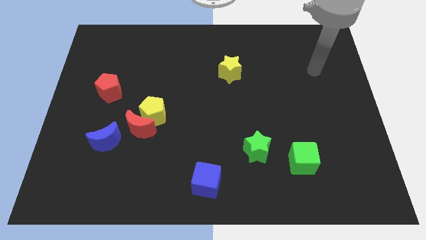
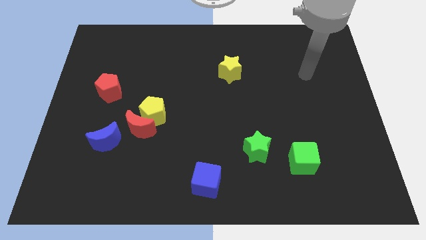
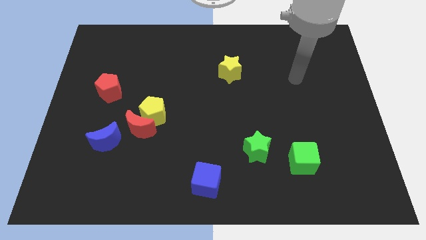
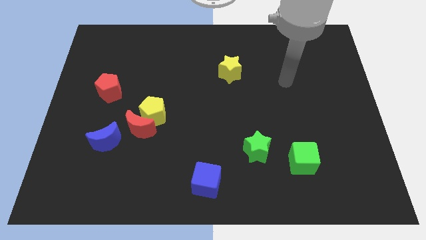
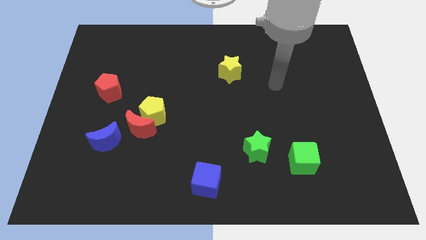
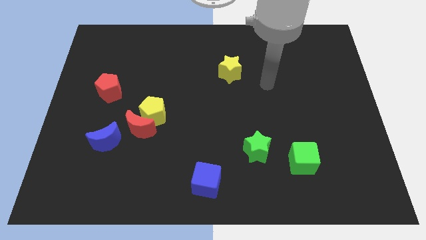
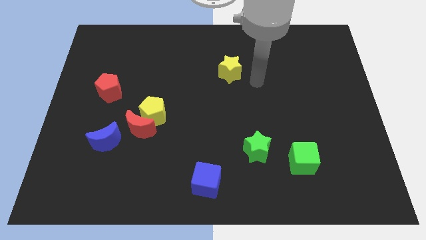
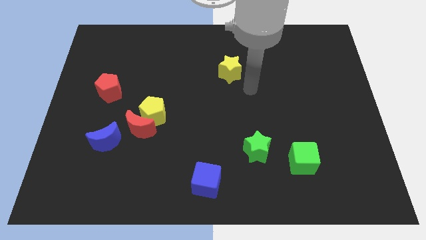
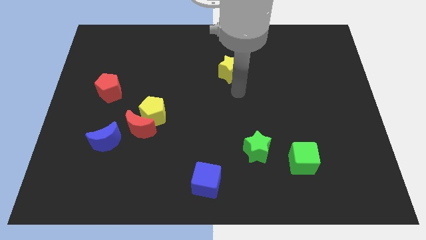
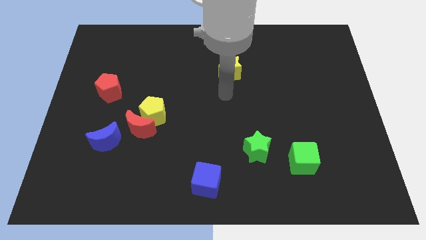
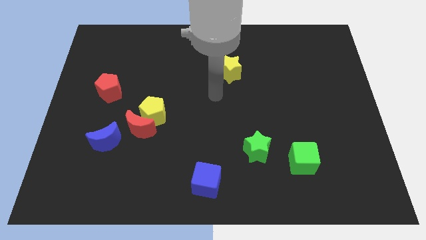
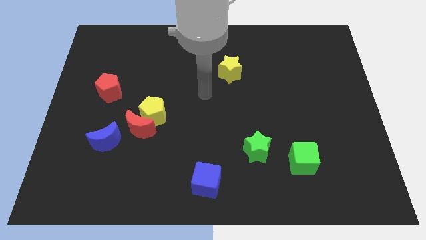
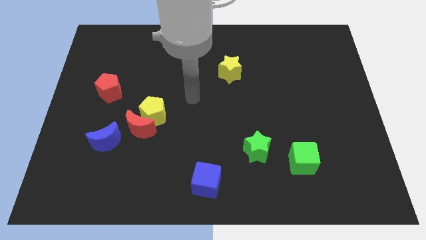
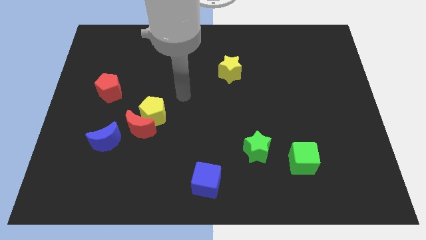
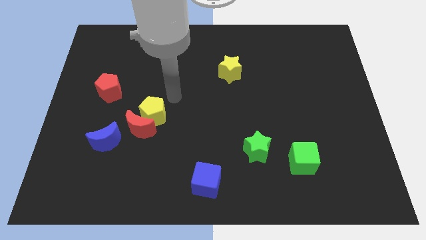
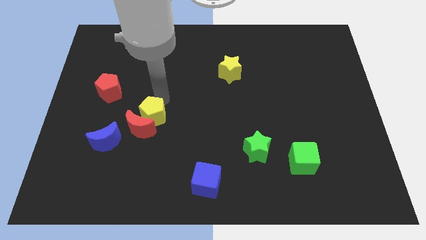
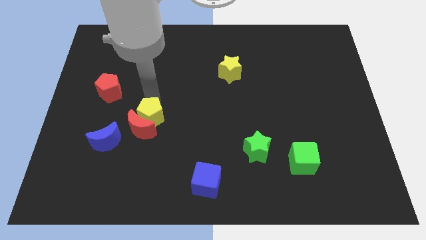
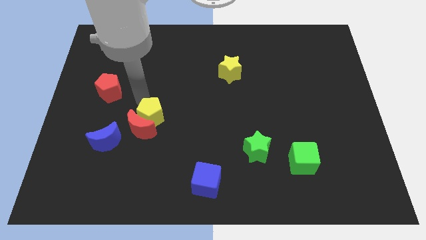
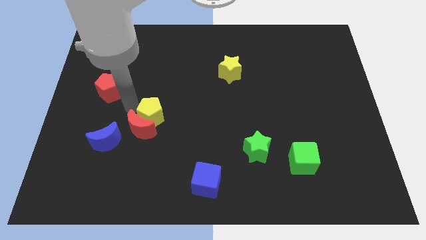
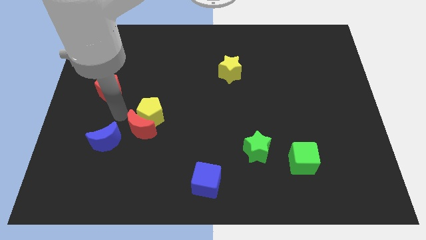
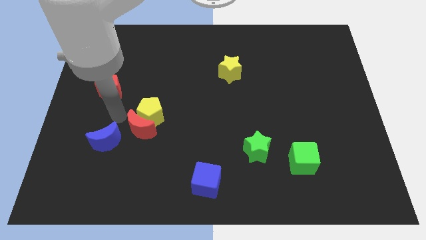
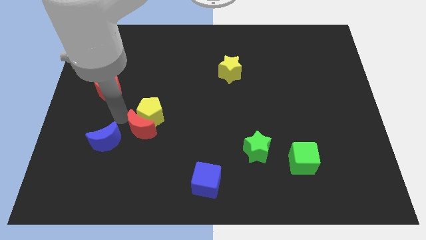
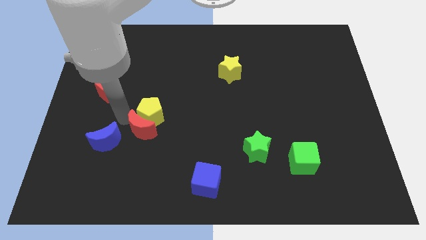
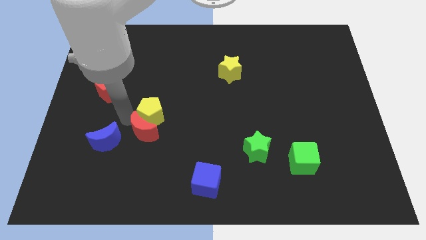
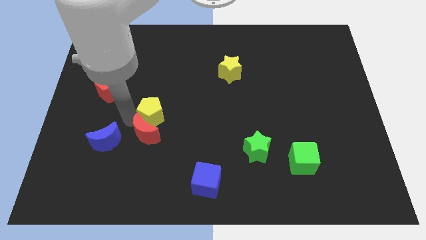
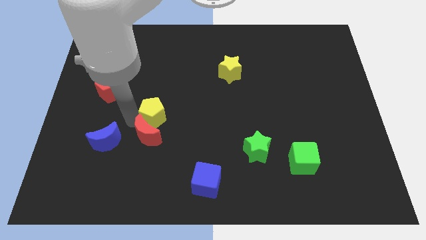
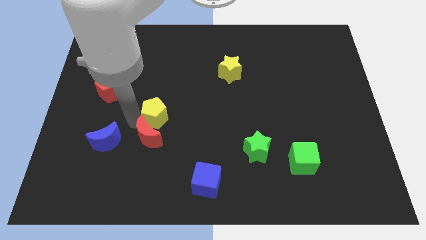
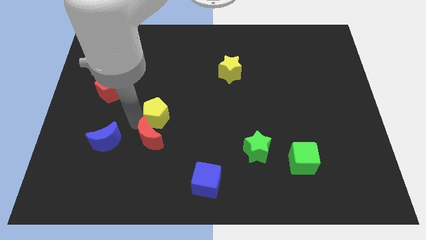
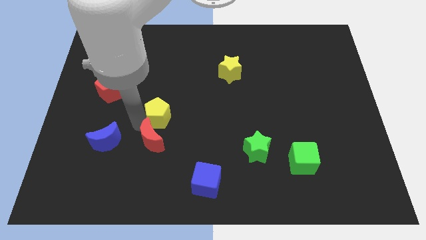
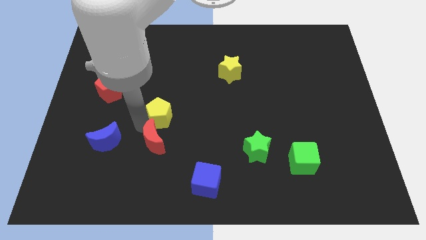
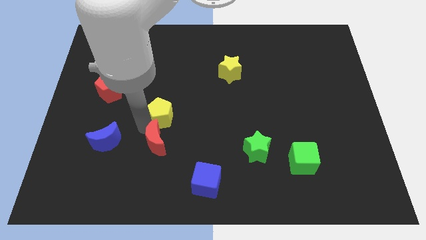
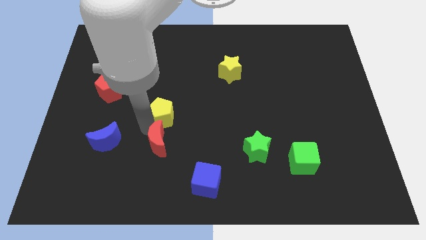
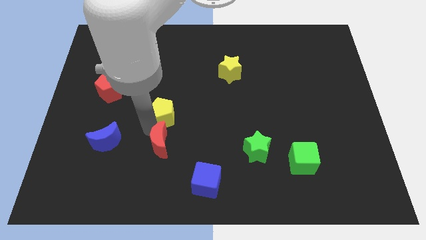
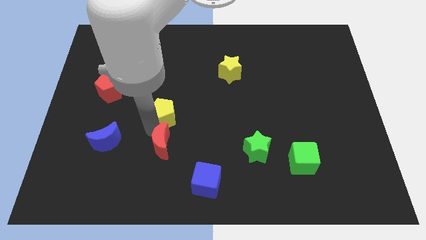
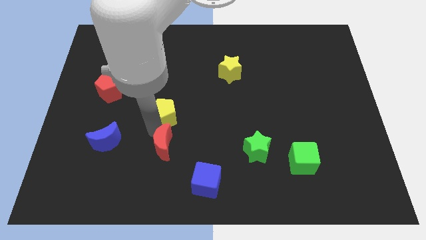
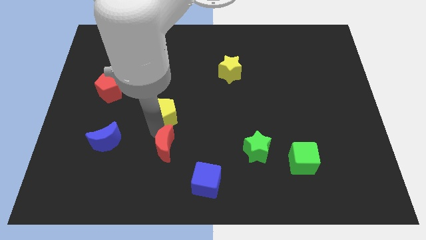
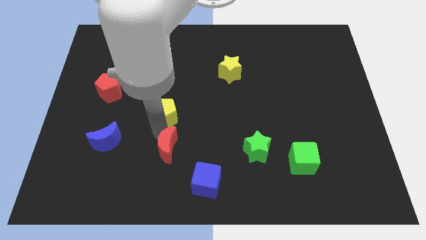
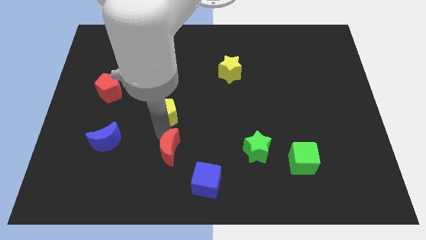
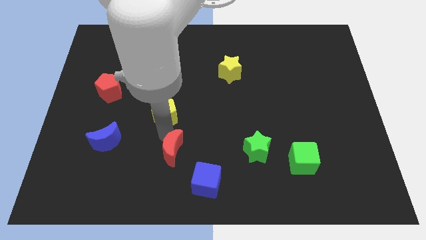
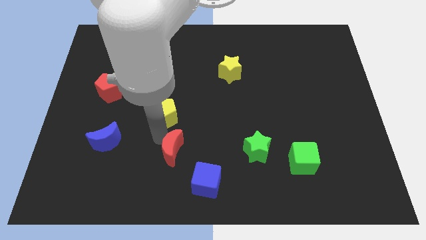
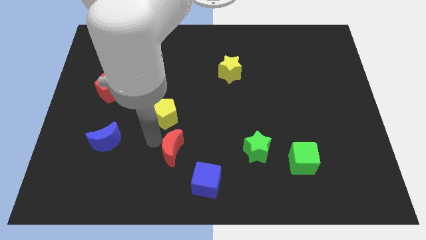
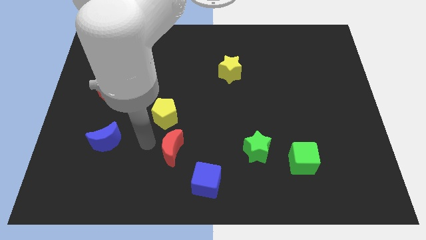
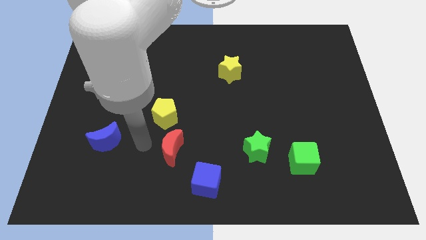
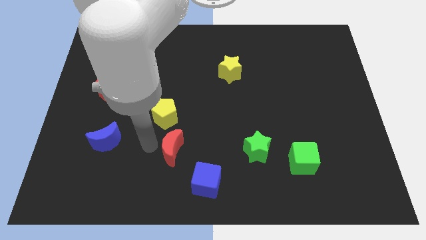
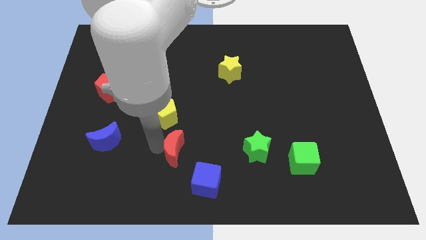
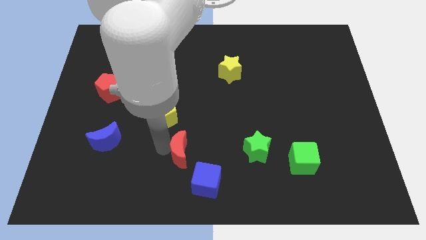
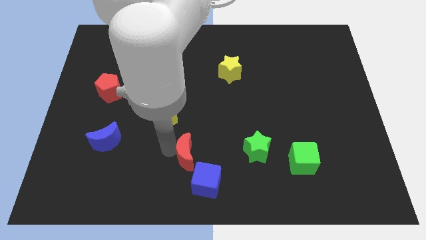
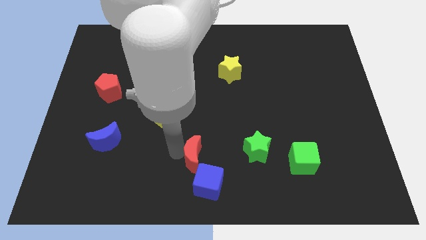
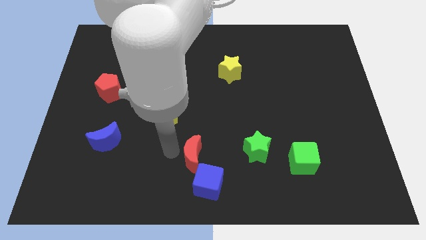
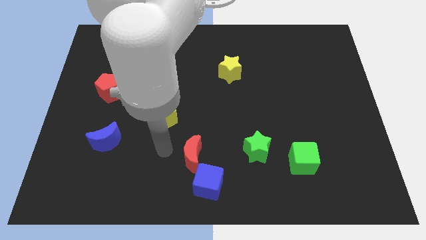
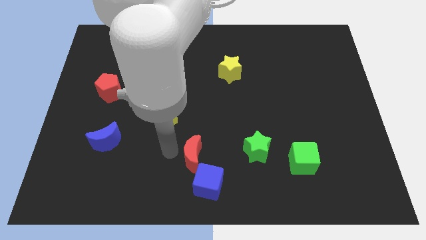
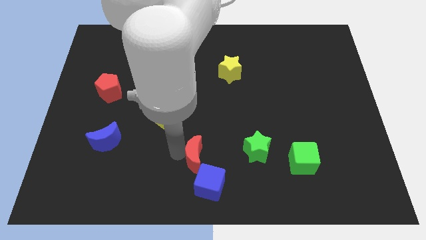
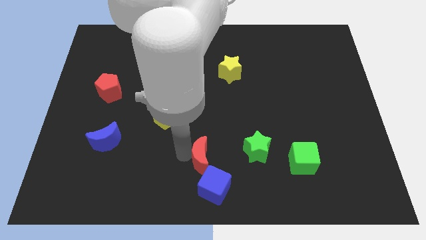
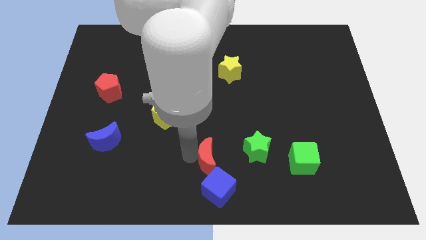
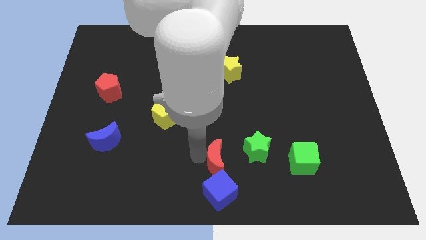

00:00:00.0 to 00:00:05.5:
slide the red moon to the bottom left of the green star

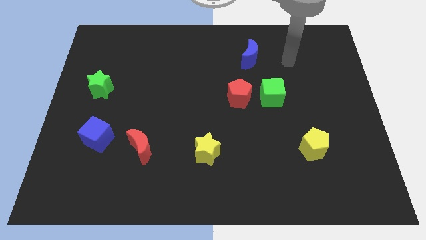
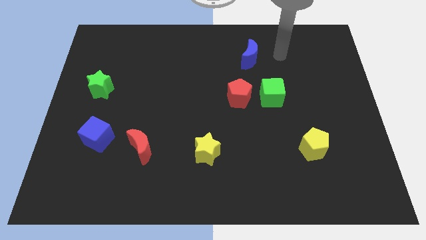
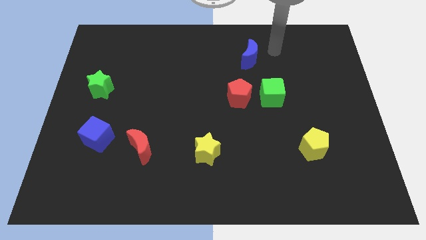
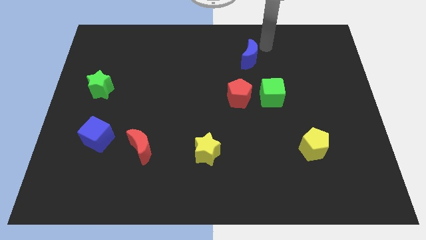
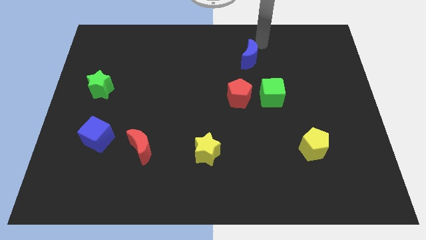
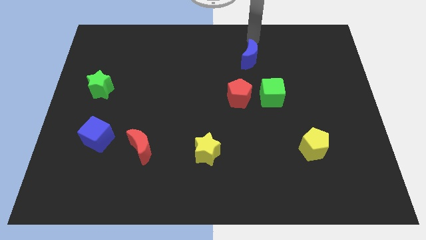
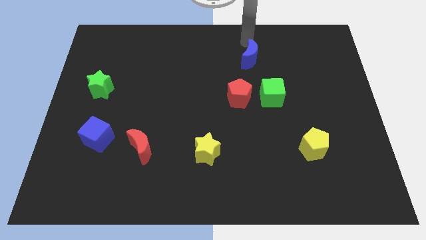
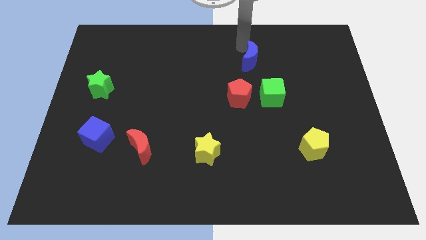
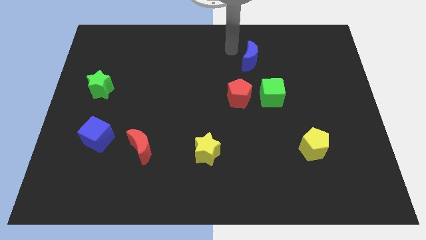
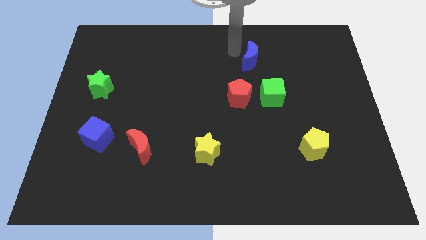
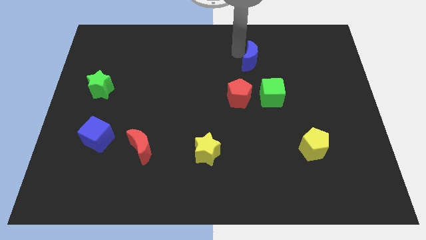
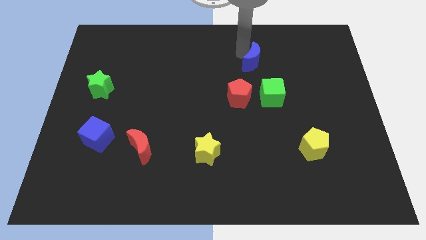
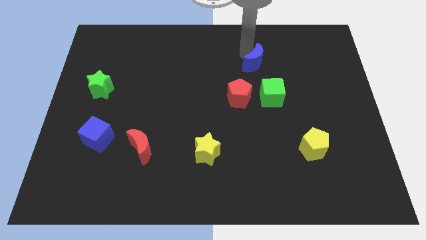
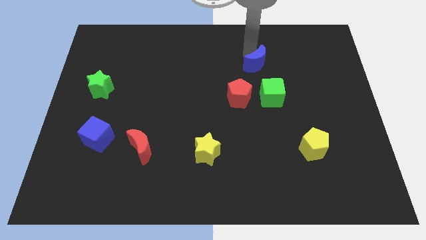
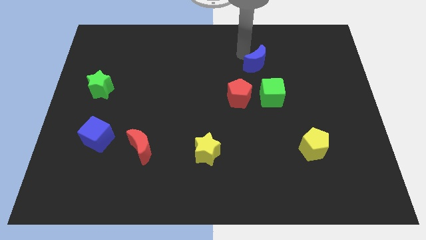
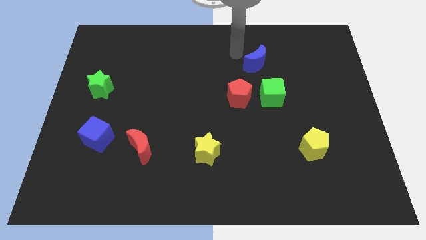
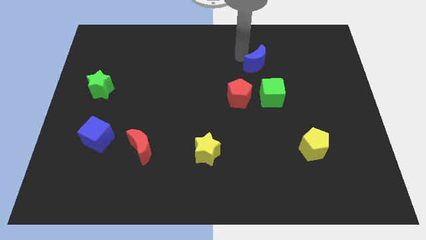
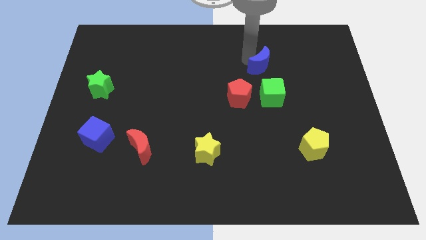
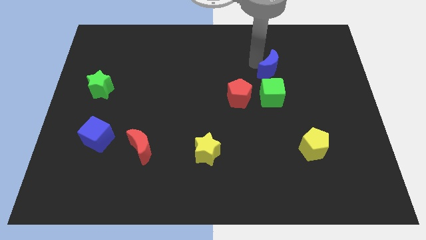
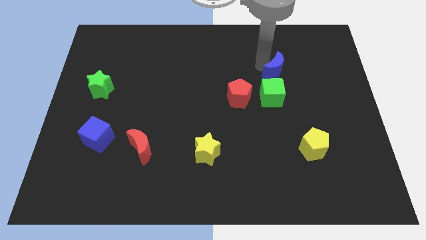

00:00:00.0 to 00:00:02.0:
put the blue moon diagonally up and to the right of the green cube

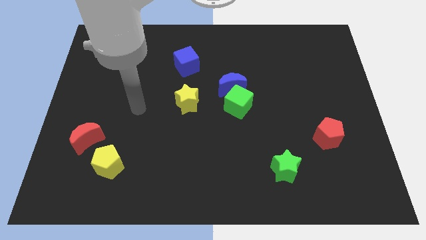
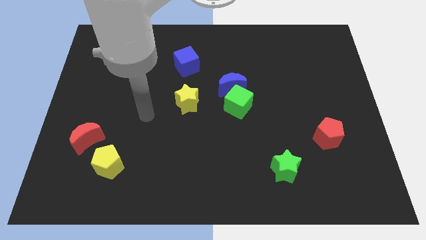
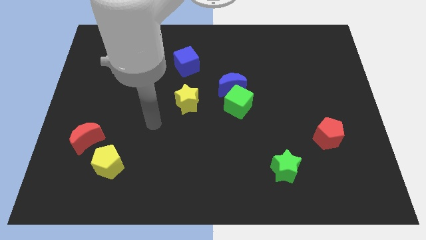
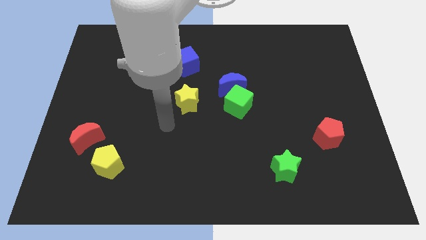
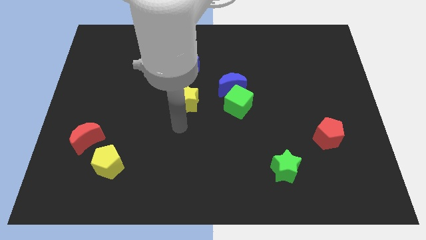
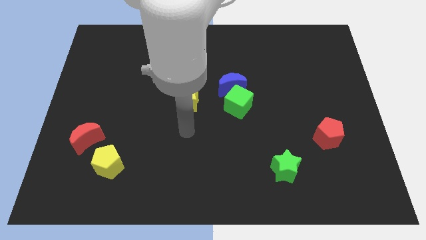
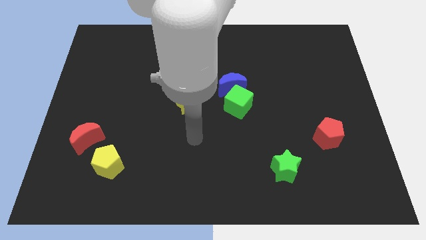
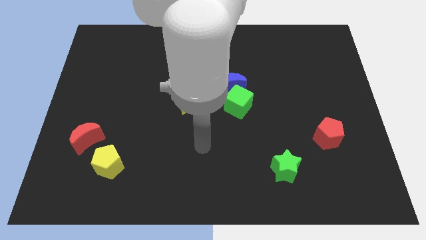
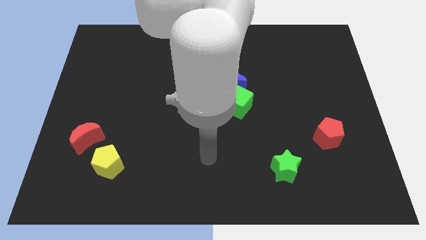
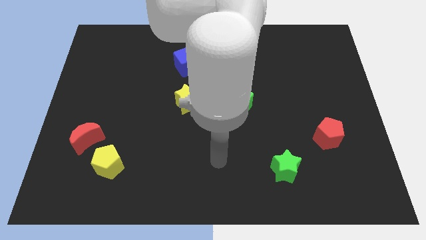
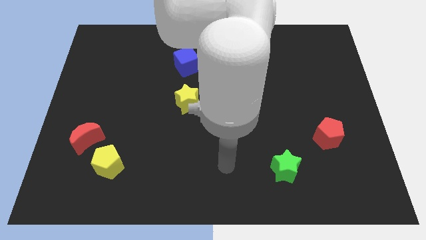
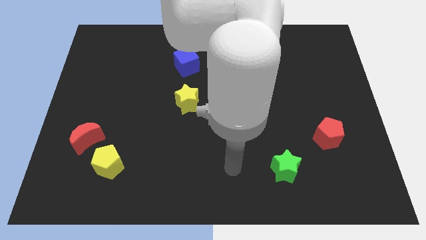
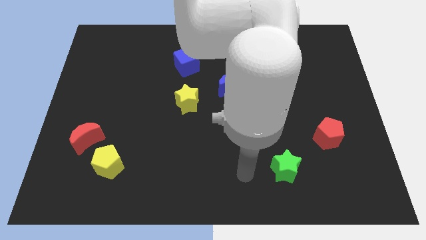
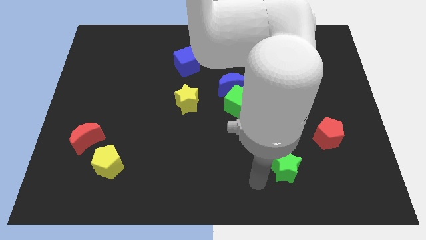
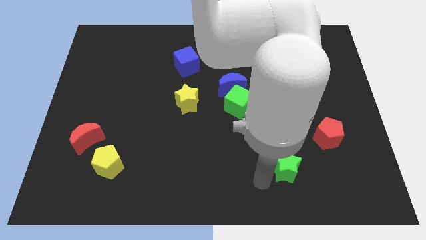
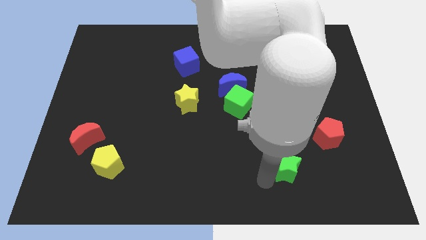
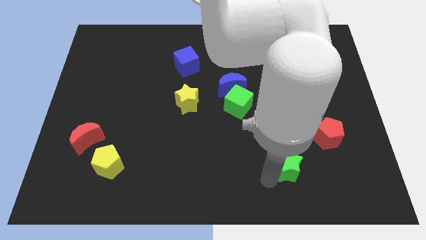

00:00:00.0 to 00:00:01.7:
move the green star to the bottom left side of the red pentagon
